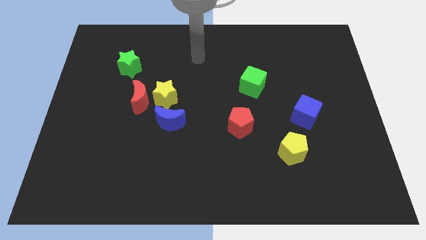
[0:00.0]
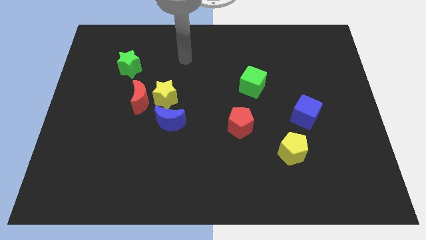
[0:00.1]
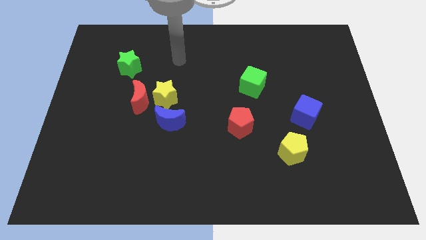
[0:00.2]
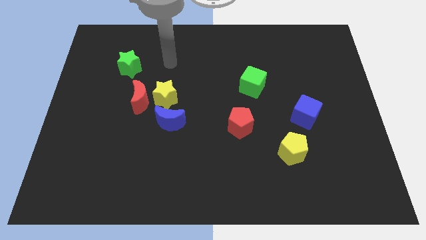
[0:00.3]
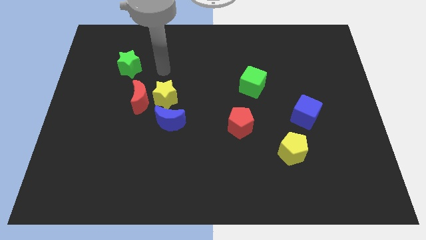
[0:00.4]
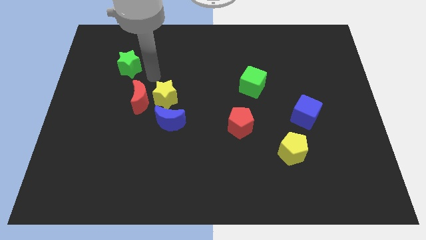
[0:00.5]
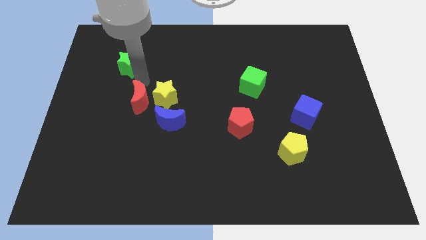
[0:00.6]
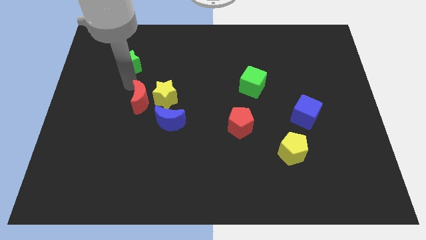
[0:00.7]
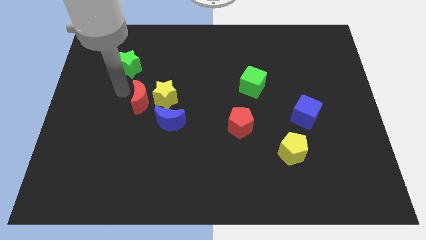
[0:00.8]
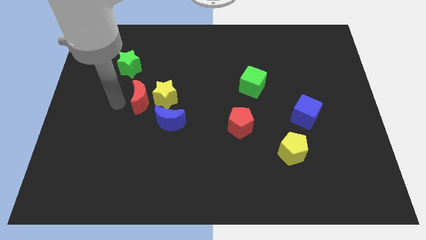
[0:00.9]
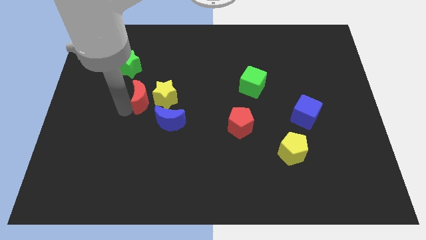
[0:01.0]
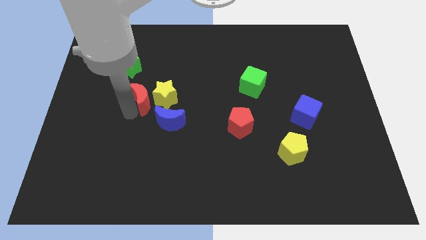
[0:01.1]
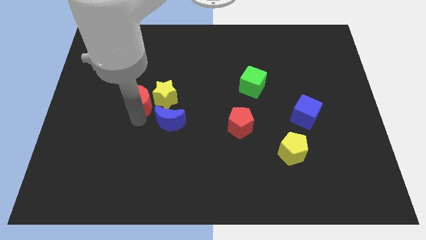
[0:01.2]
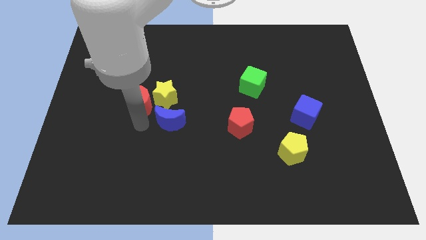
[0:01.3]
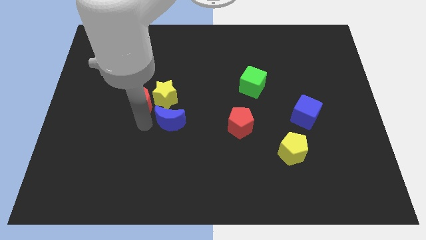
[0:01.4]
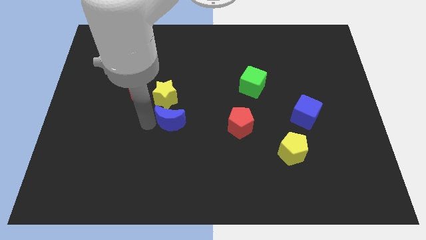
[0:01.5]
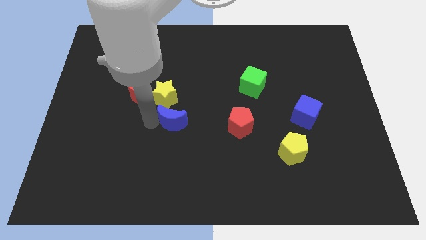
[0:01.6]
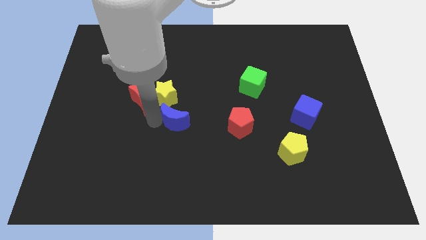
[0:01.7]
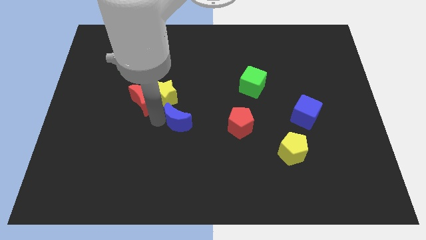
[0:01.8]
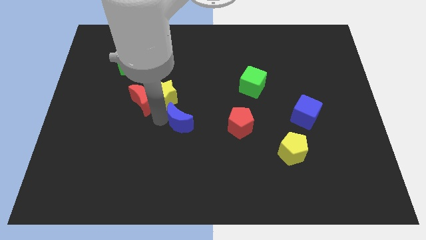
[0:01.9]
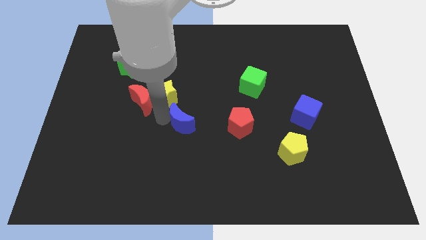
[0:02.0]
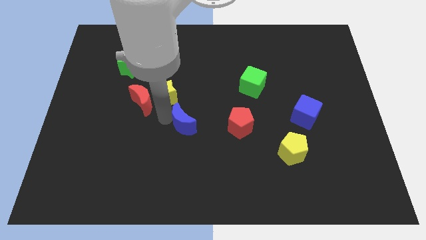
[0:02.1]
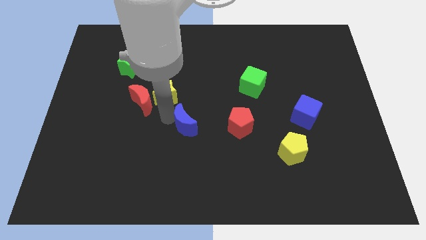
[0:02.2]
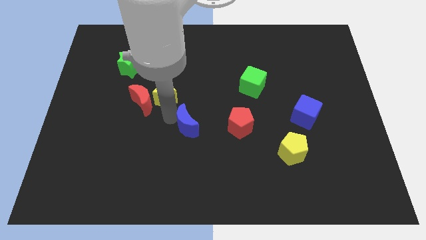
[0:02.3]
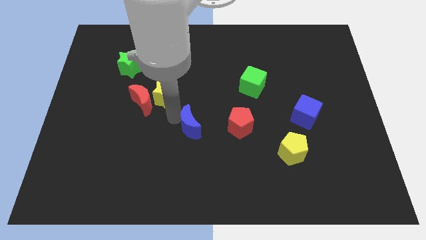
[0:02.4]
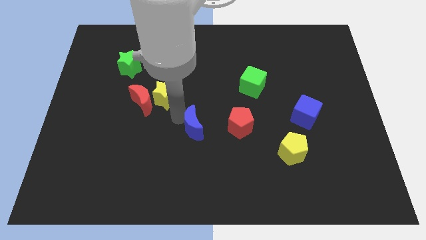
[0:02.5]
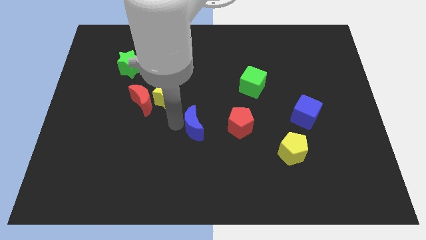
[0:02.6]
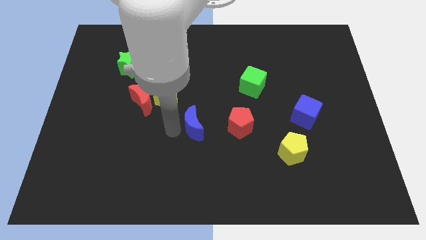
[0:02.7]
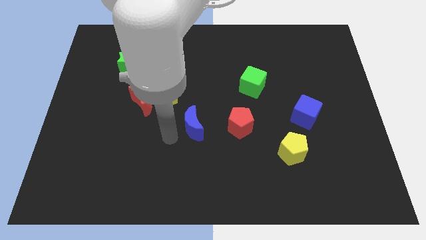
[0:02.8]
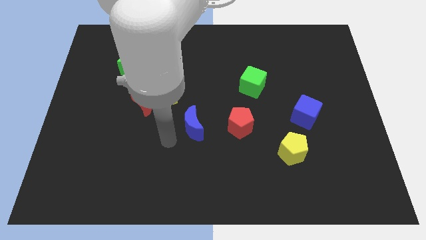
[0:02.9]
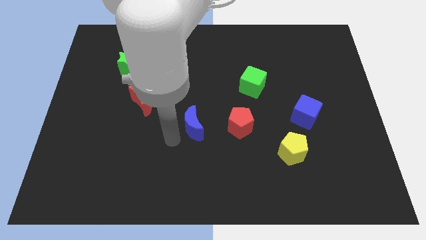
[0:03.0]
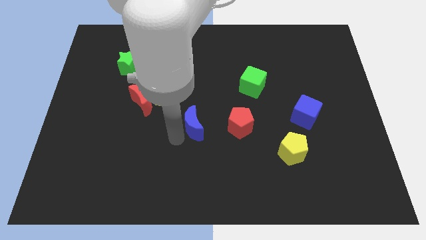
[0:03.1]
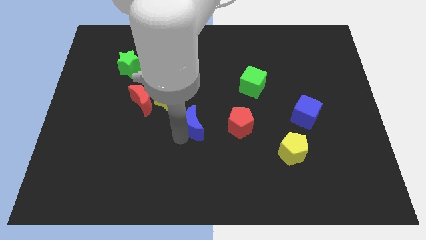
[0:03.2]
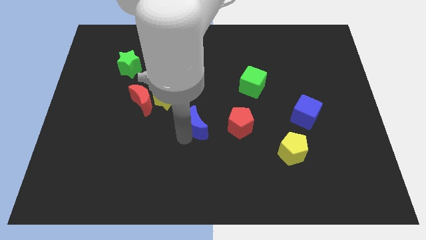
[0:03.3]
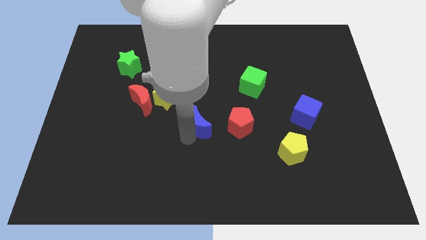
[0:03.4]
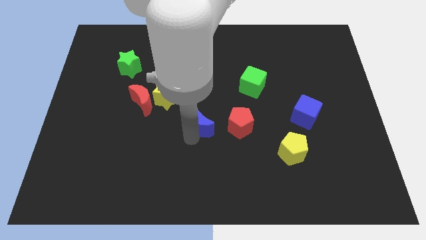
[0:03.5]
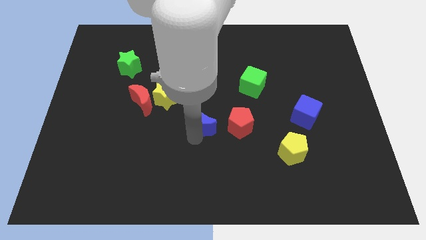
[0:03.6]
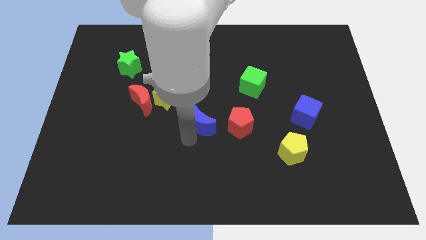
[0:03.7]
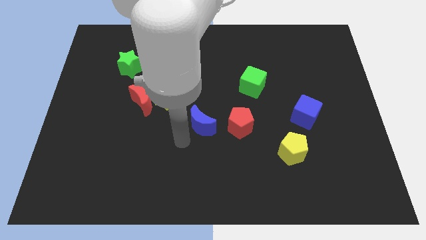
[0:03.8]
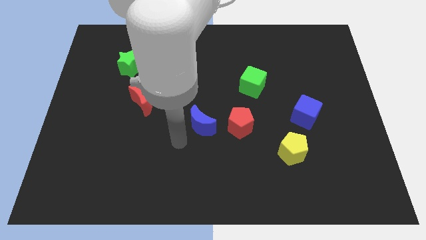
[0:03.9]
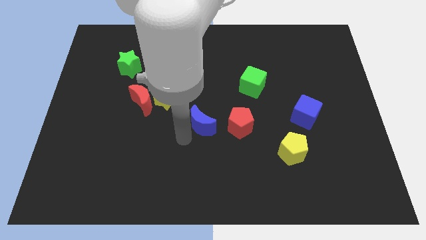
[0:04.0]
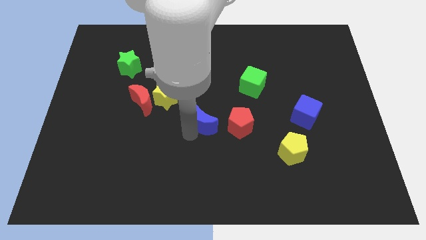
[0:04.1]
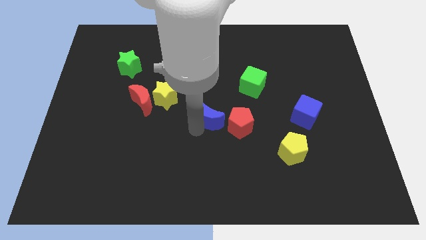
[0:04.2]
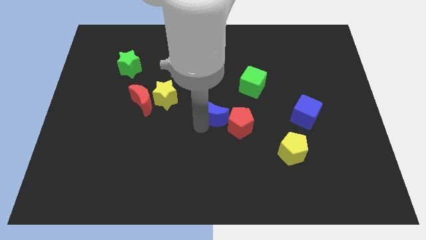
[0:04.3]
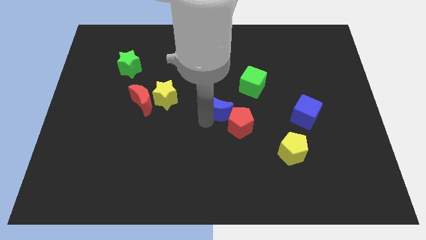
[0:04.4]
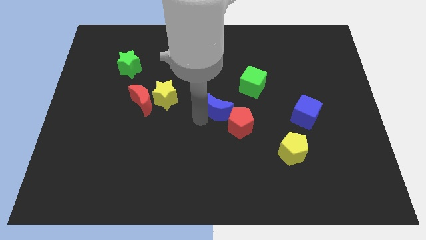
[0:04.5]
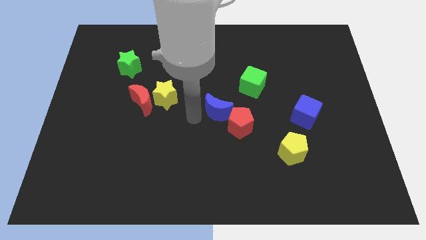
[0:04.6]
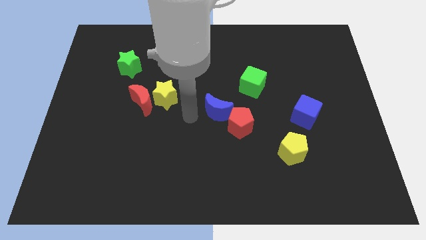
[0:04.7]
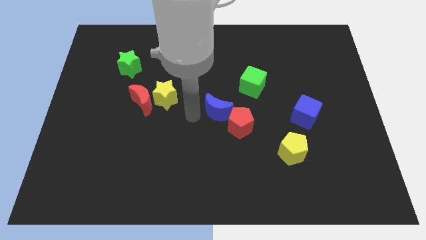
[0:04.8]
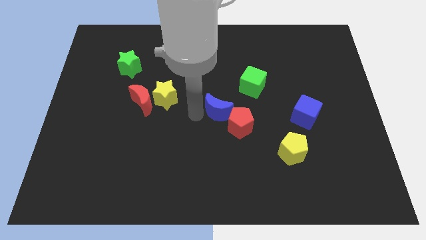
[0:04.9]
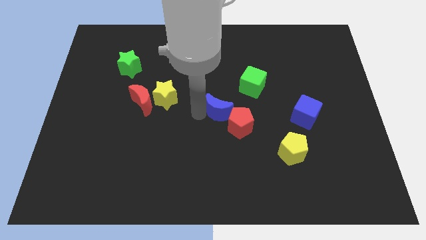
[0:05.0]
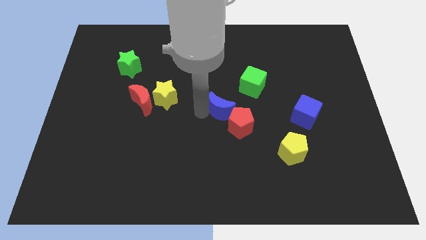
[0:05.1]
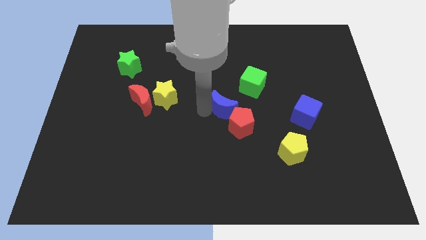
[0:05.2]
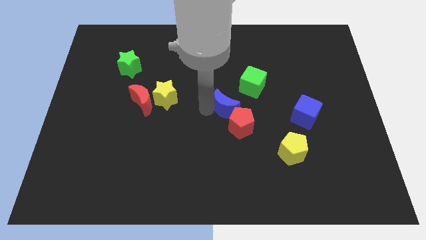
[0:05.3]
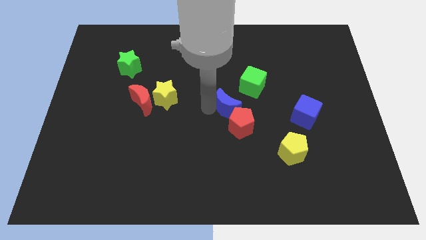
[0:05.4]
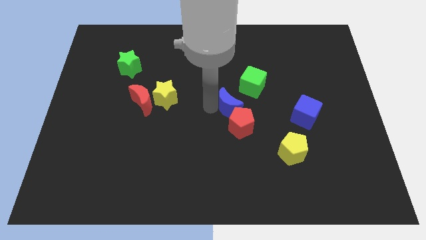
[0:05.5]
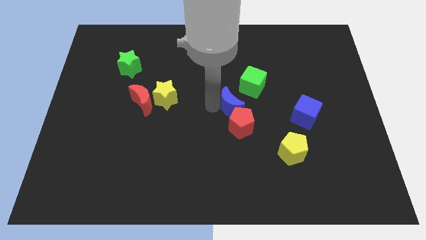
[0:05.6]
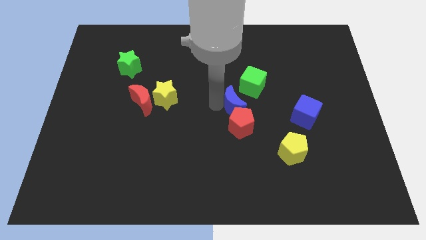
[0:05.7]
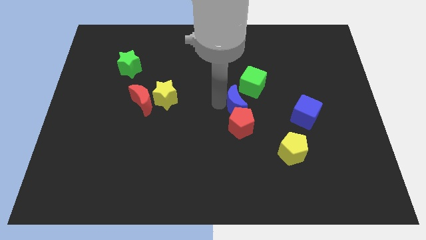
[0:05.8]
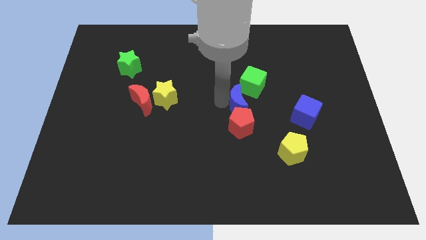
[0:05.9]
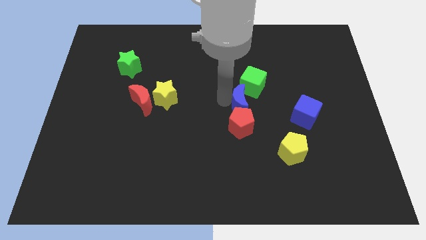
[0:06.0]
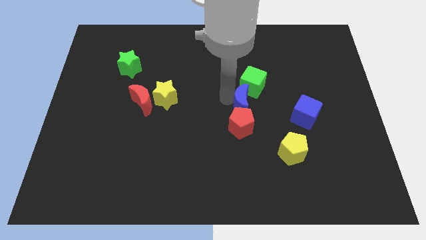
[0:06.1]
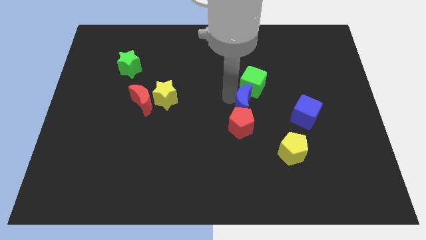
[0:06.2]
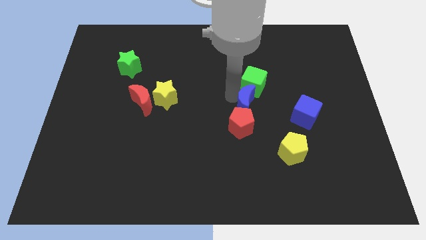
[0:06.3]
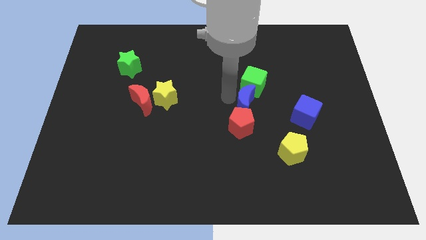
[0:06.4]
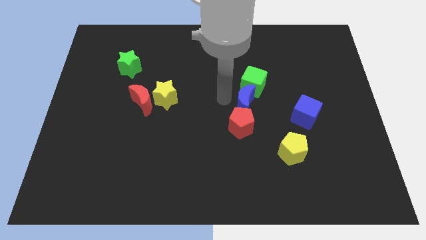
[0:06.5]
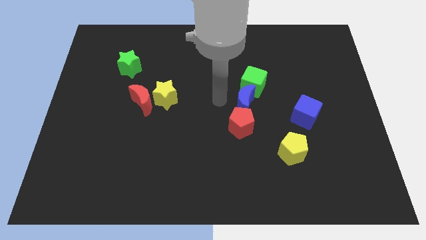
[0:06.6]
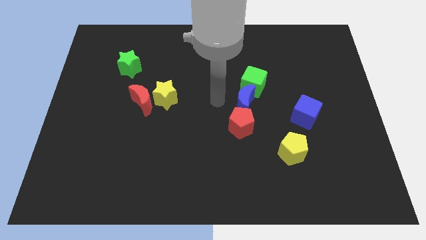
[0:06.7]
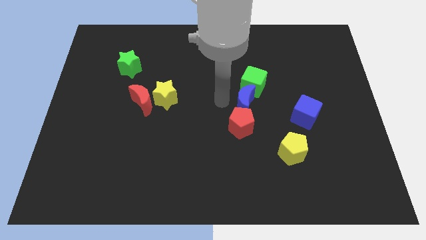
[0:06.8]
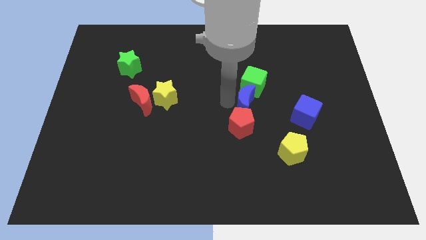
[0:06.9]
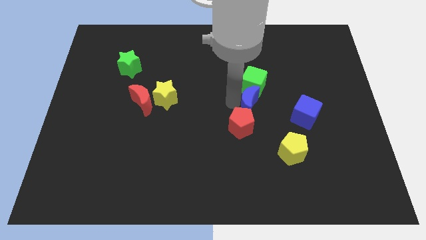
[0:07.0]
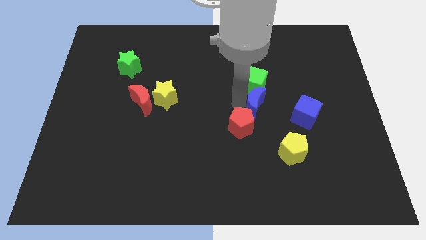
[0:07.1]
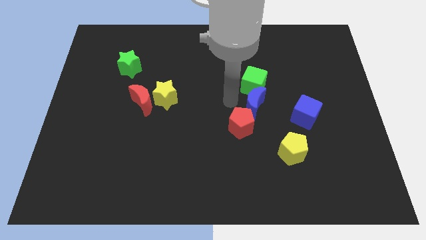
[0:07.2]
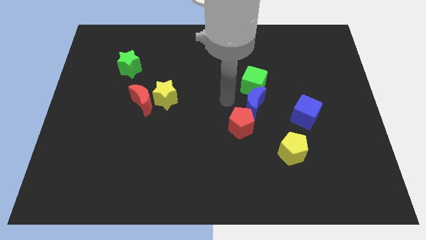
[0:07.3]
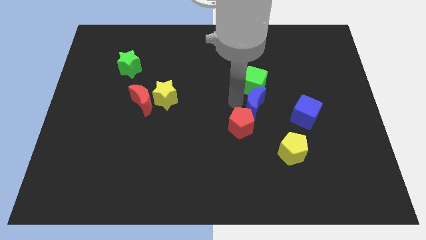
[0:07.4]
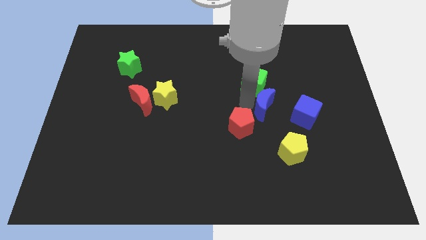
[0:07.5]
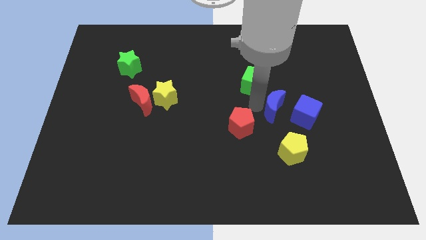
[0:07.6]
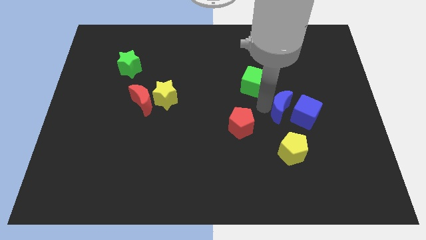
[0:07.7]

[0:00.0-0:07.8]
push the blue moon towards the blue cube
